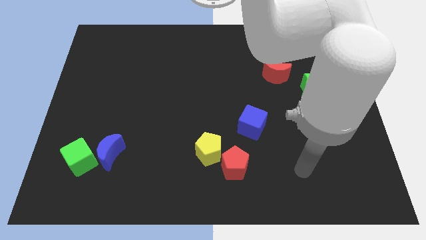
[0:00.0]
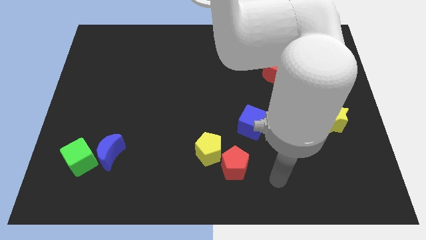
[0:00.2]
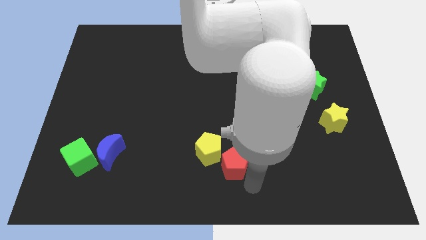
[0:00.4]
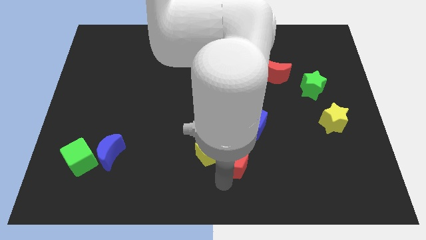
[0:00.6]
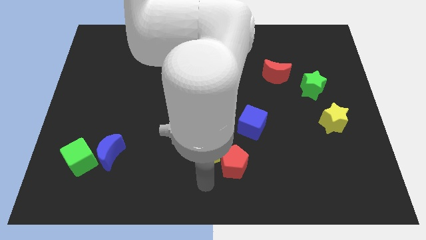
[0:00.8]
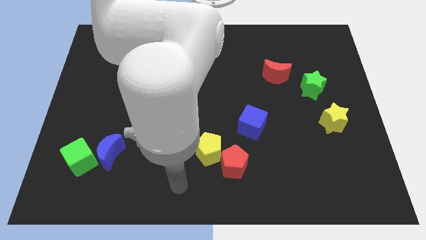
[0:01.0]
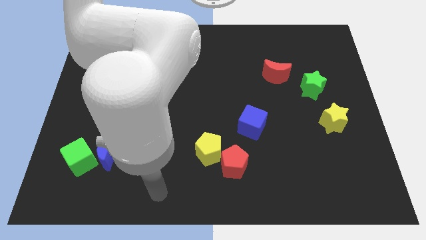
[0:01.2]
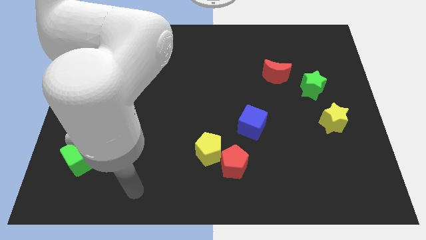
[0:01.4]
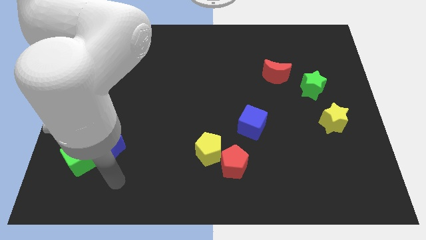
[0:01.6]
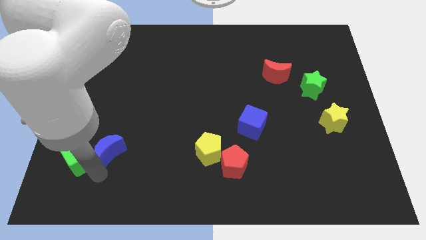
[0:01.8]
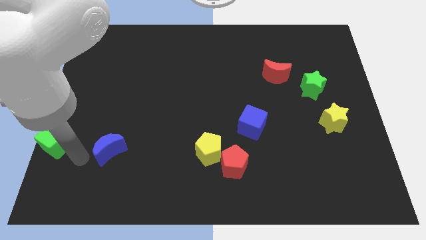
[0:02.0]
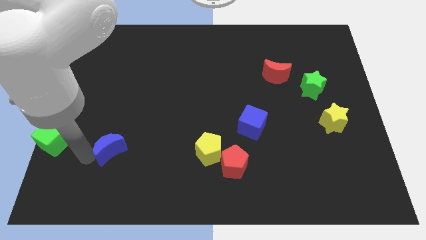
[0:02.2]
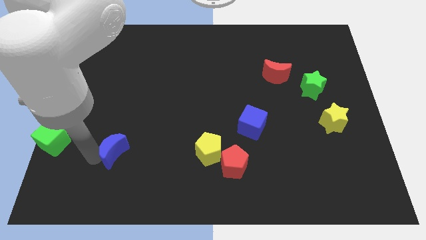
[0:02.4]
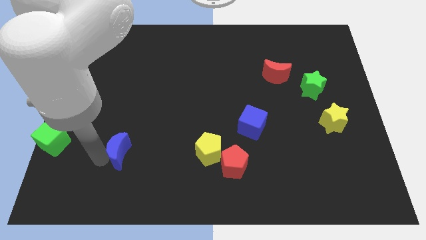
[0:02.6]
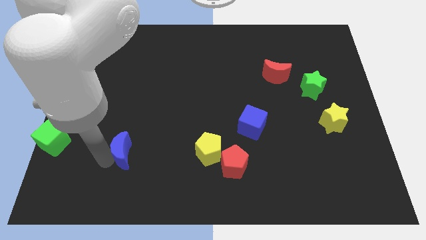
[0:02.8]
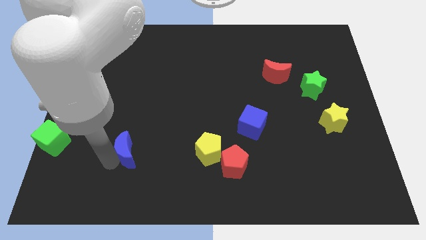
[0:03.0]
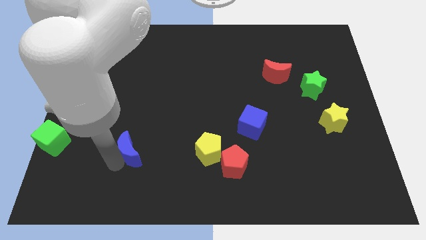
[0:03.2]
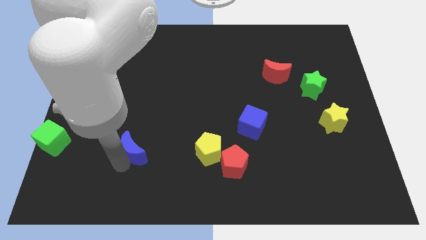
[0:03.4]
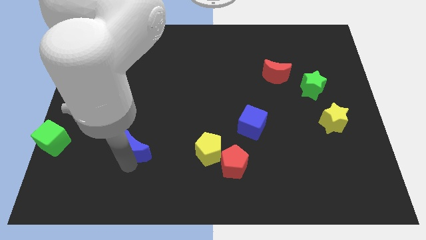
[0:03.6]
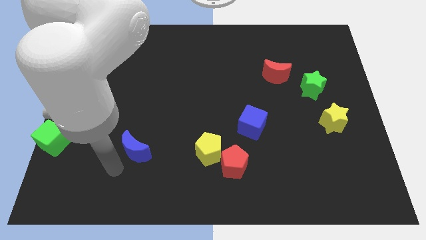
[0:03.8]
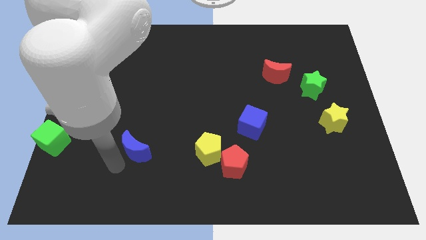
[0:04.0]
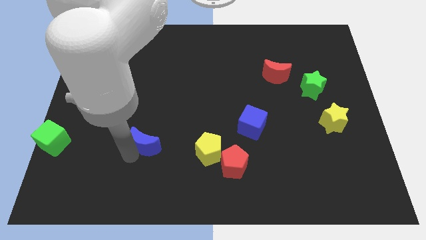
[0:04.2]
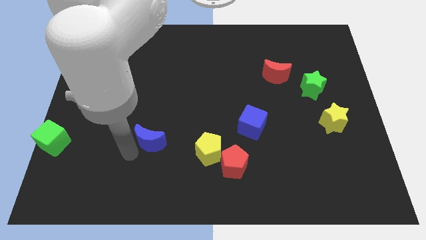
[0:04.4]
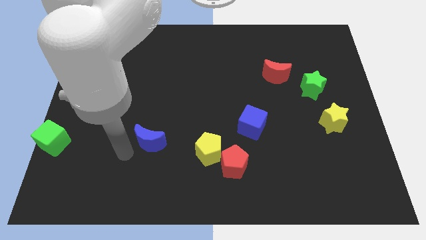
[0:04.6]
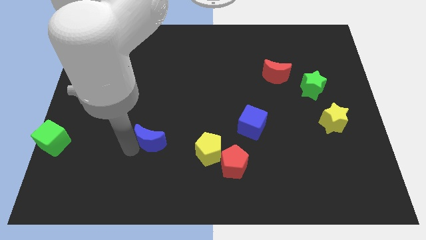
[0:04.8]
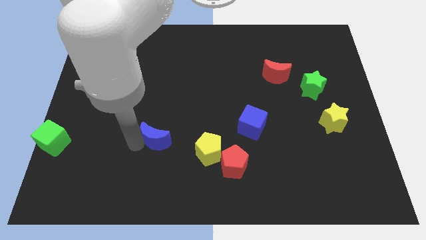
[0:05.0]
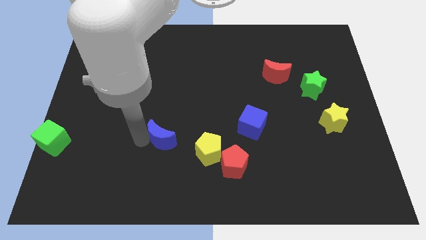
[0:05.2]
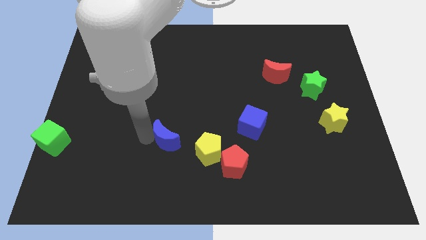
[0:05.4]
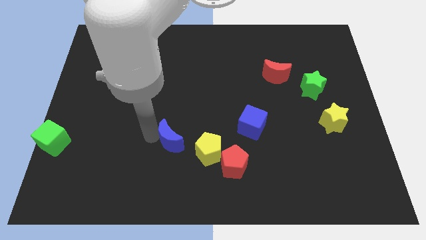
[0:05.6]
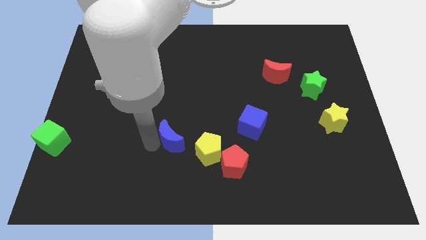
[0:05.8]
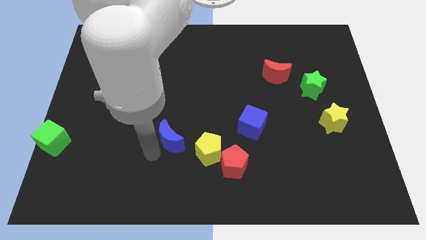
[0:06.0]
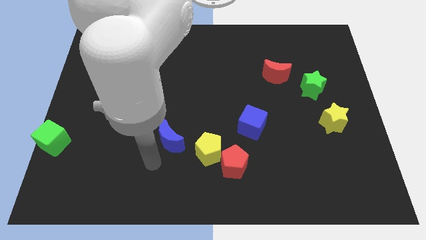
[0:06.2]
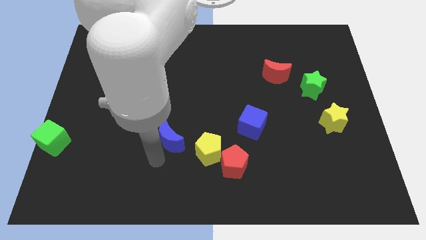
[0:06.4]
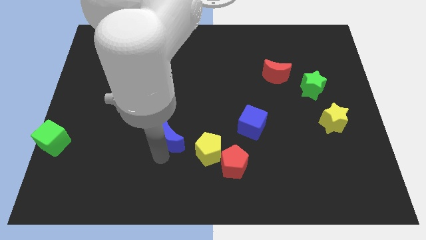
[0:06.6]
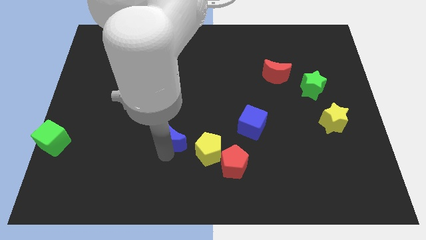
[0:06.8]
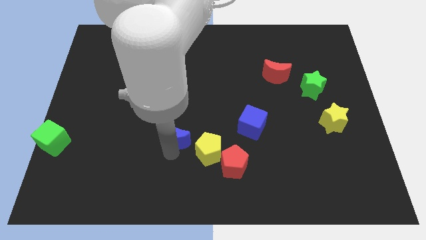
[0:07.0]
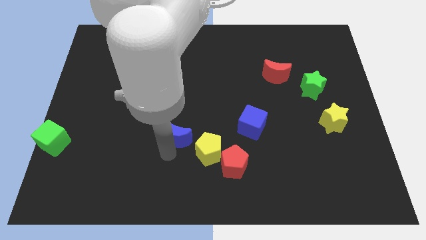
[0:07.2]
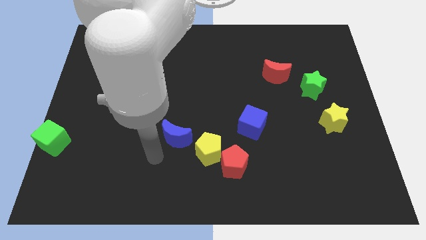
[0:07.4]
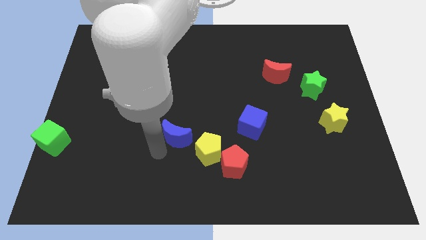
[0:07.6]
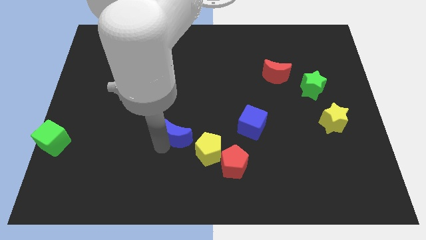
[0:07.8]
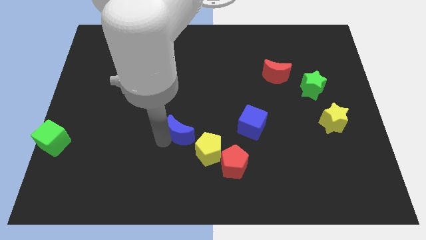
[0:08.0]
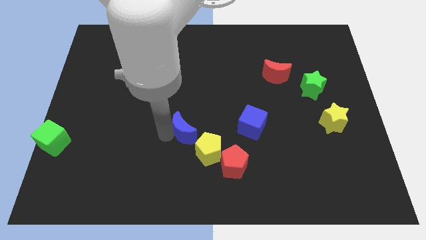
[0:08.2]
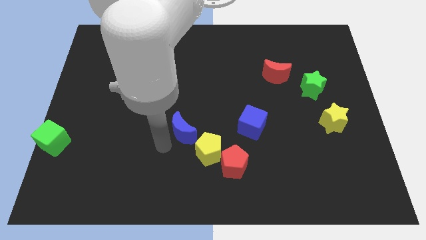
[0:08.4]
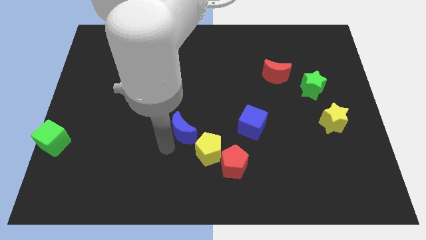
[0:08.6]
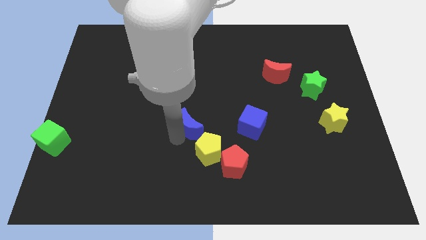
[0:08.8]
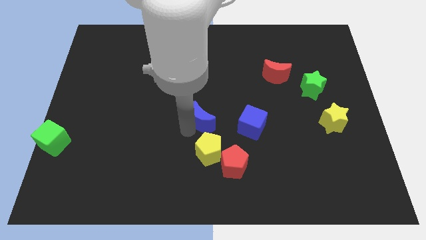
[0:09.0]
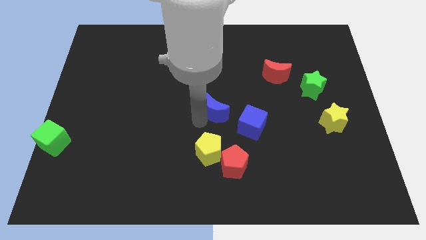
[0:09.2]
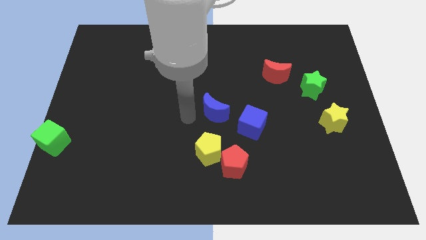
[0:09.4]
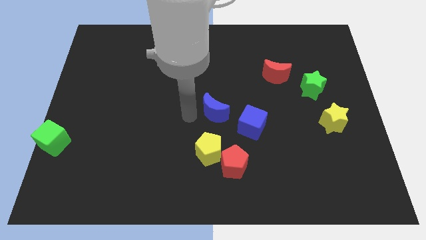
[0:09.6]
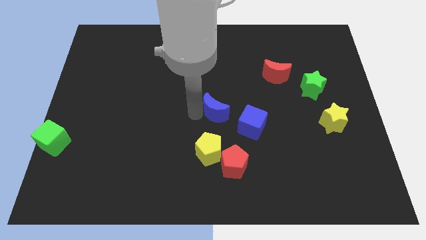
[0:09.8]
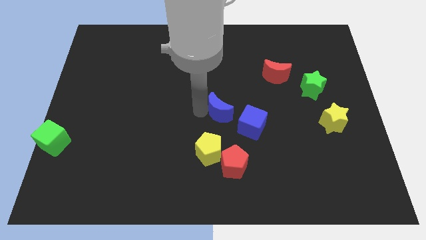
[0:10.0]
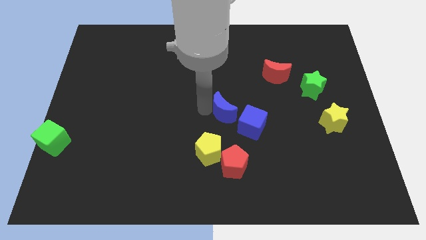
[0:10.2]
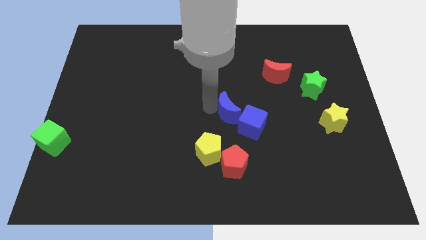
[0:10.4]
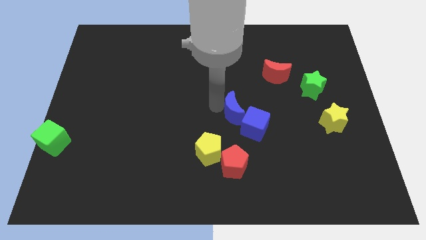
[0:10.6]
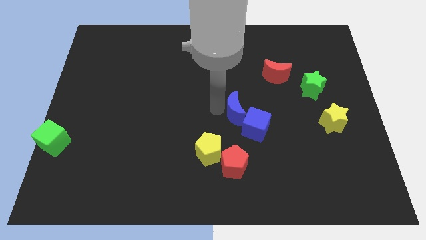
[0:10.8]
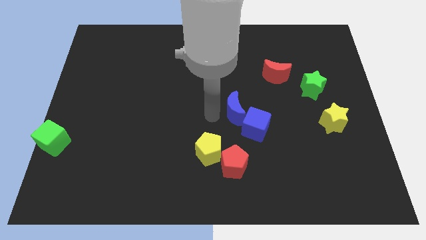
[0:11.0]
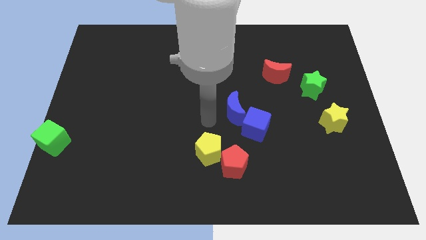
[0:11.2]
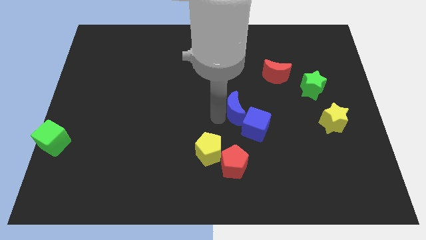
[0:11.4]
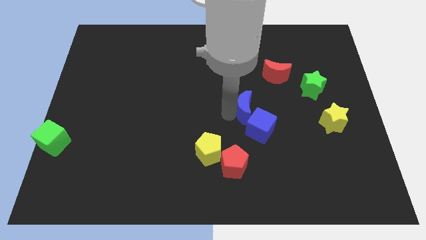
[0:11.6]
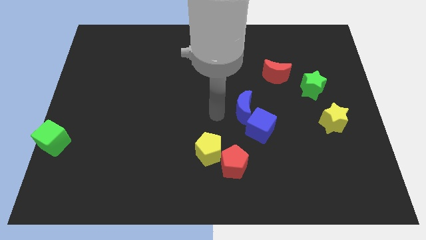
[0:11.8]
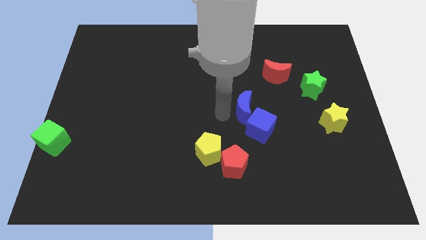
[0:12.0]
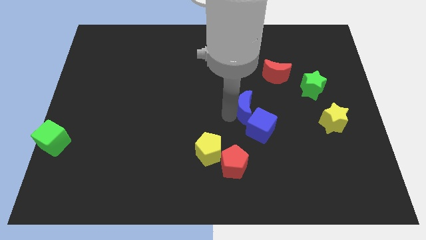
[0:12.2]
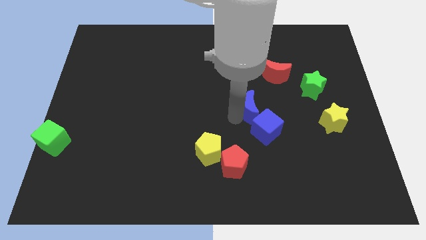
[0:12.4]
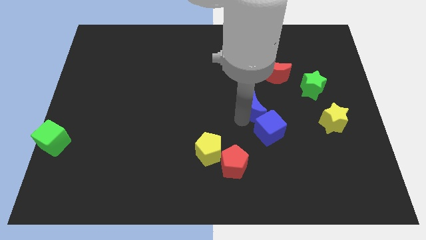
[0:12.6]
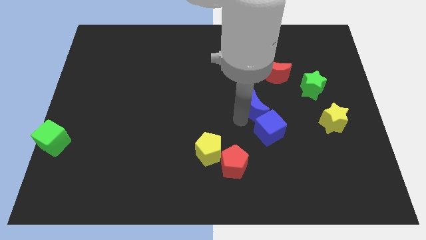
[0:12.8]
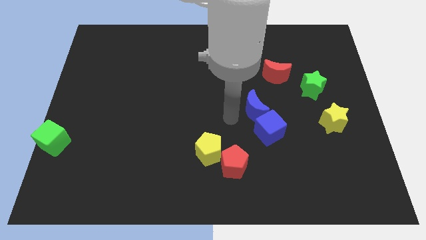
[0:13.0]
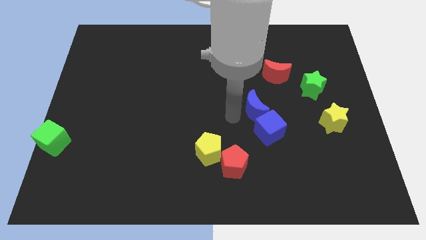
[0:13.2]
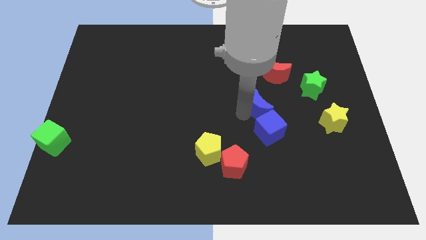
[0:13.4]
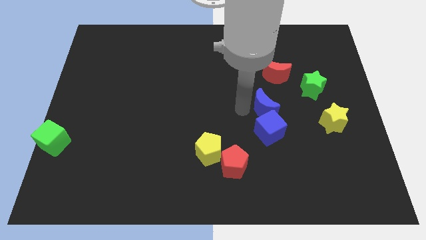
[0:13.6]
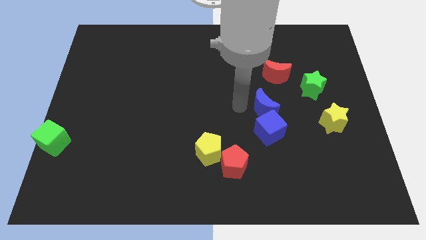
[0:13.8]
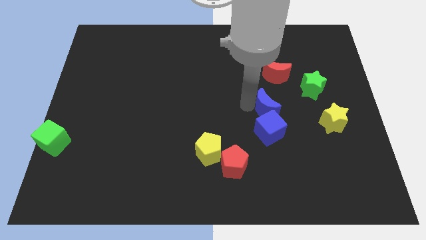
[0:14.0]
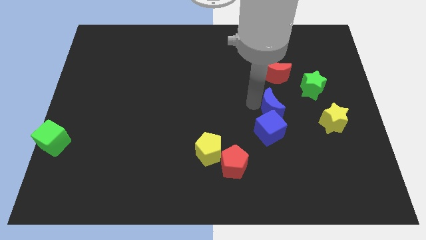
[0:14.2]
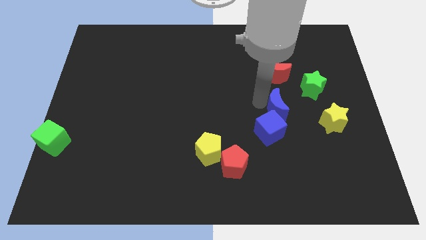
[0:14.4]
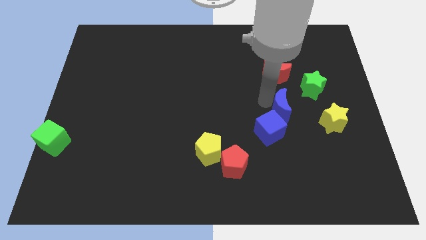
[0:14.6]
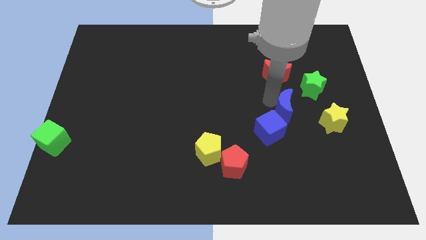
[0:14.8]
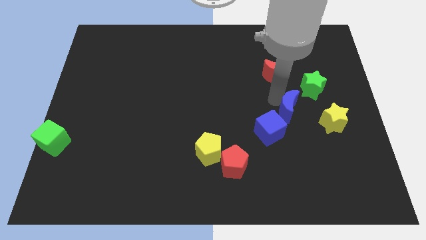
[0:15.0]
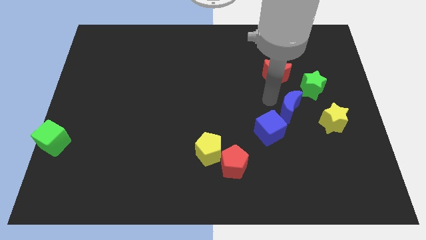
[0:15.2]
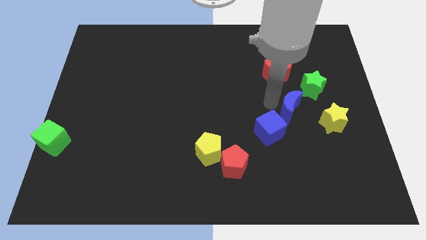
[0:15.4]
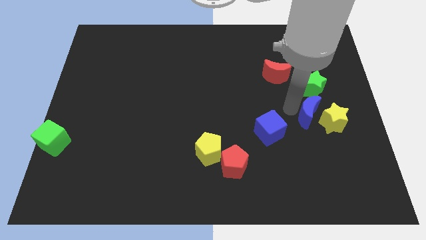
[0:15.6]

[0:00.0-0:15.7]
slide the blue moon to the yellow star
